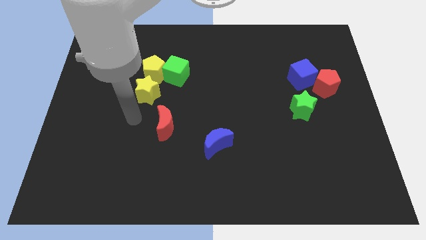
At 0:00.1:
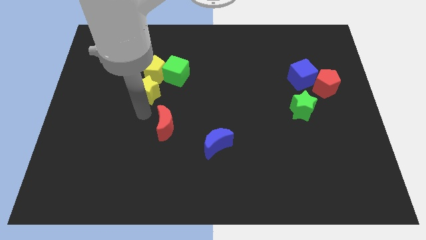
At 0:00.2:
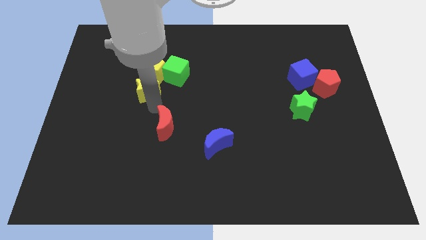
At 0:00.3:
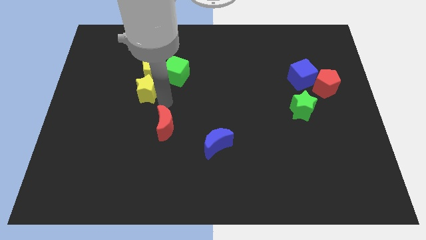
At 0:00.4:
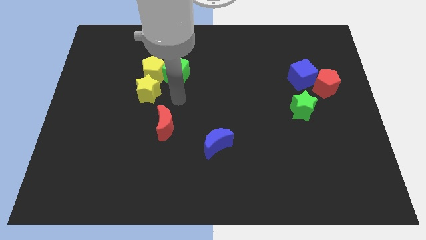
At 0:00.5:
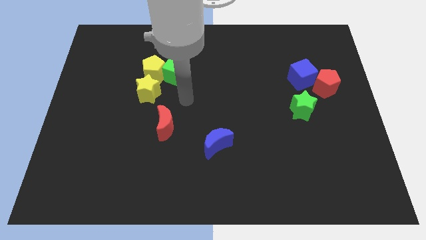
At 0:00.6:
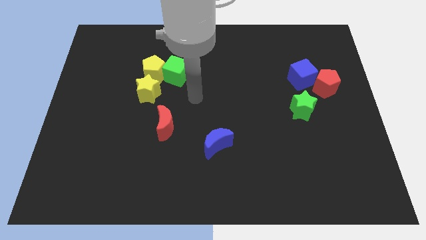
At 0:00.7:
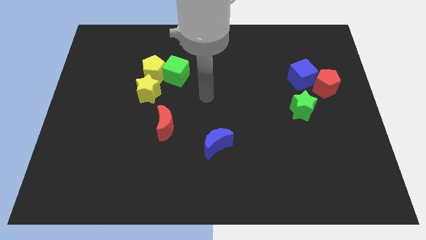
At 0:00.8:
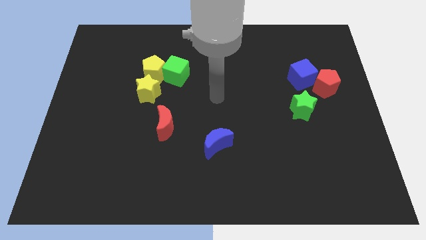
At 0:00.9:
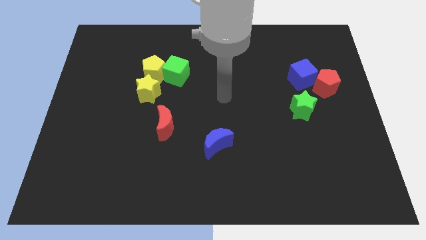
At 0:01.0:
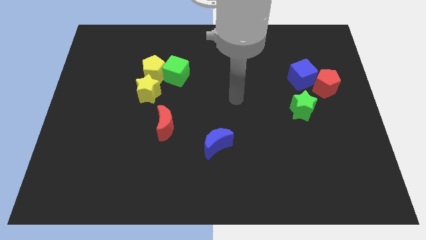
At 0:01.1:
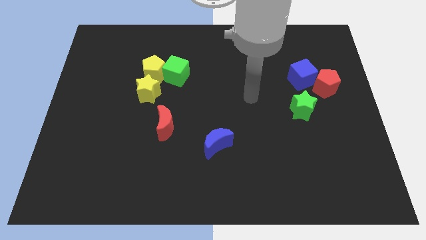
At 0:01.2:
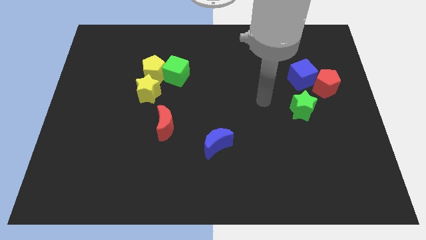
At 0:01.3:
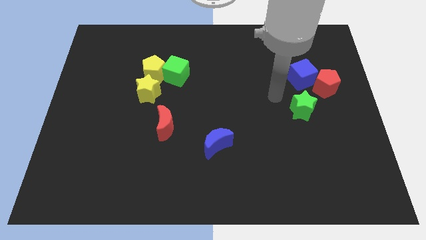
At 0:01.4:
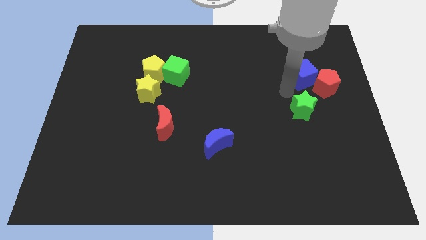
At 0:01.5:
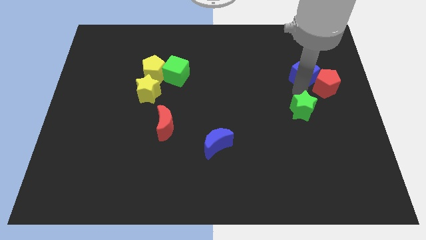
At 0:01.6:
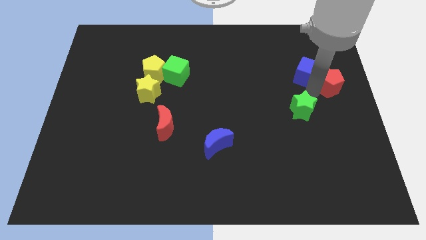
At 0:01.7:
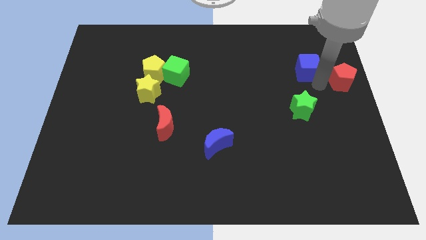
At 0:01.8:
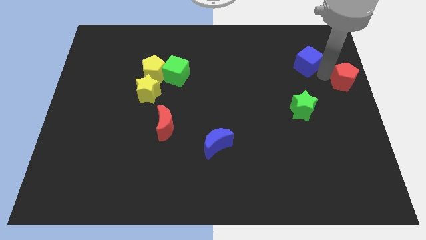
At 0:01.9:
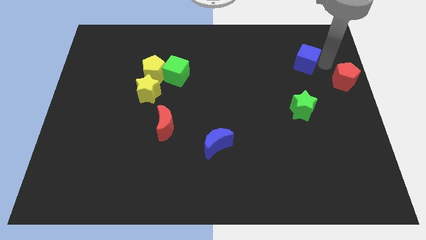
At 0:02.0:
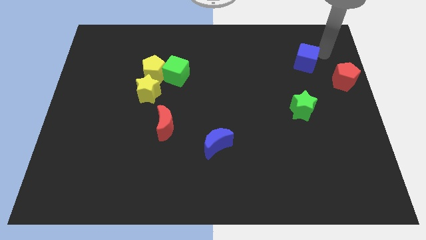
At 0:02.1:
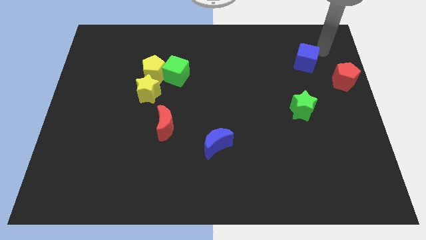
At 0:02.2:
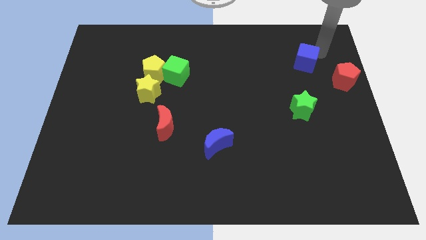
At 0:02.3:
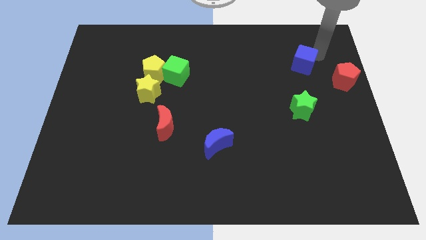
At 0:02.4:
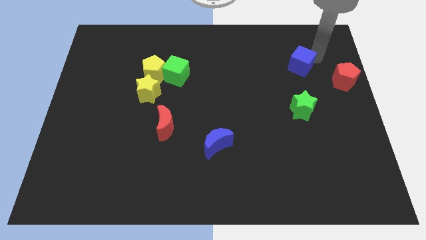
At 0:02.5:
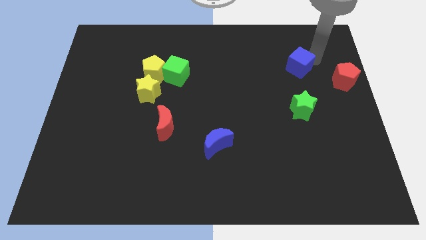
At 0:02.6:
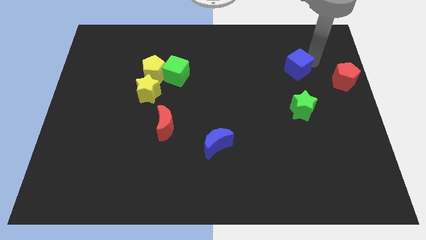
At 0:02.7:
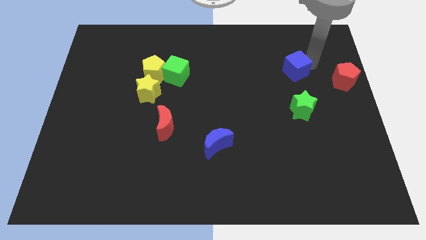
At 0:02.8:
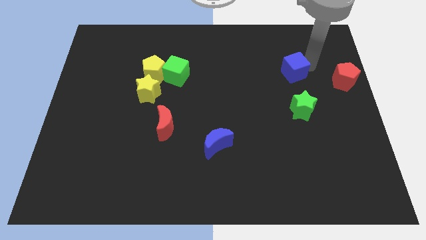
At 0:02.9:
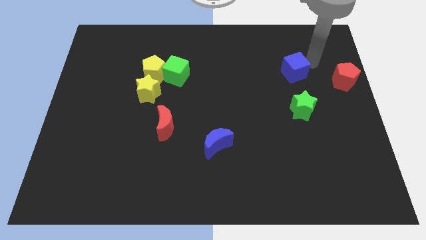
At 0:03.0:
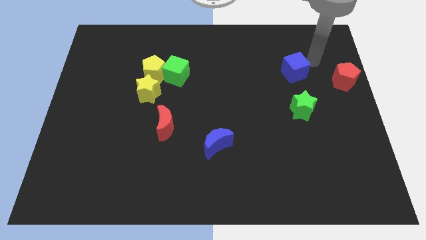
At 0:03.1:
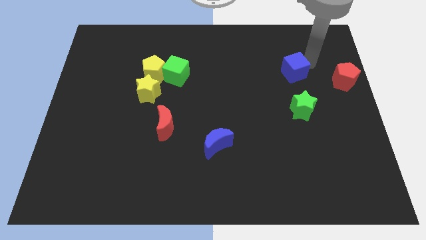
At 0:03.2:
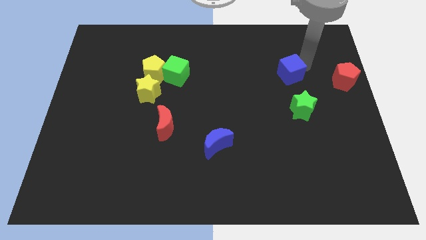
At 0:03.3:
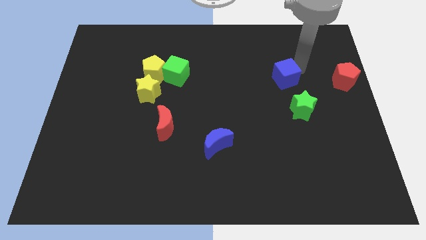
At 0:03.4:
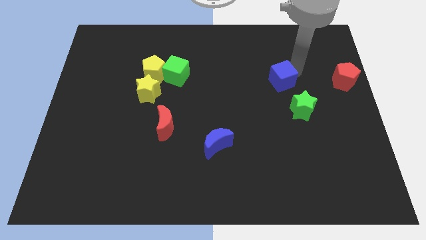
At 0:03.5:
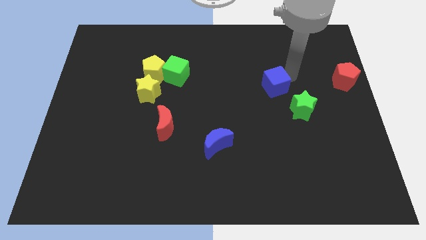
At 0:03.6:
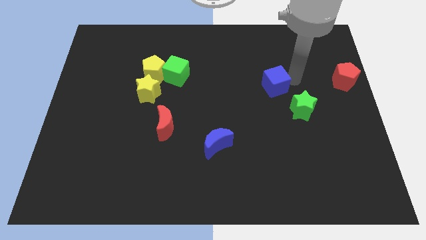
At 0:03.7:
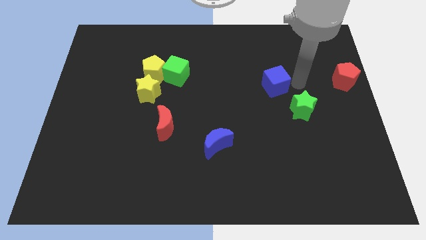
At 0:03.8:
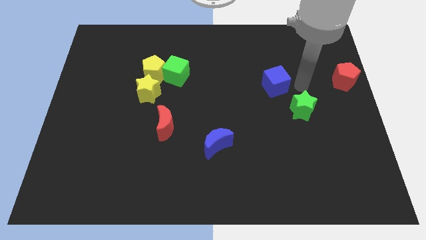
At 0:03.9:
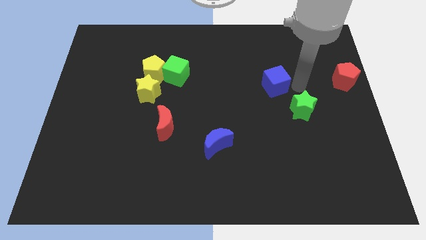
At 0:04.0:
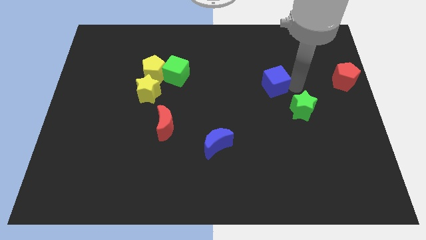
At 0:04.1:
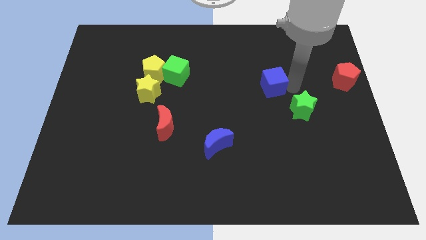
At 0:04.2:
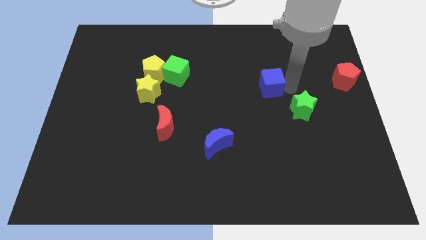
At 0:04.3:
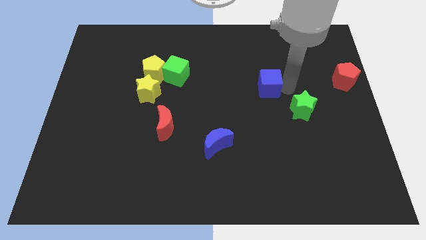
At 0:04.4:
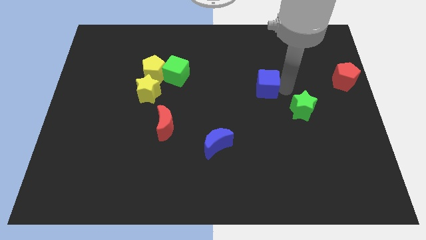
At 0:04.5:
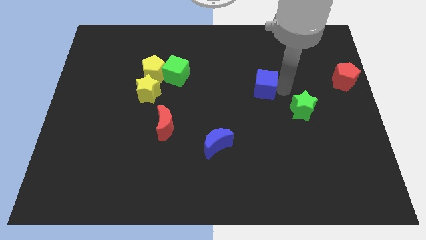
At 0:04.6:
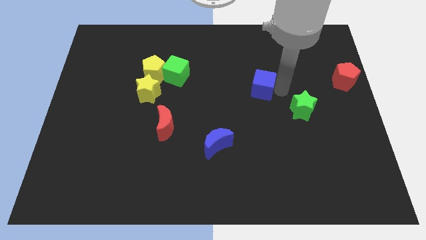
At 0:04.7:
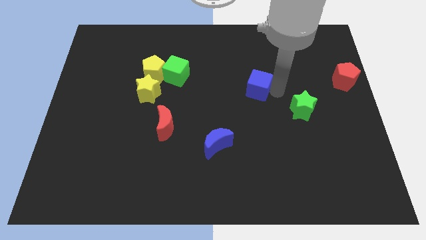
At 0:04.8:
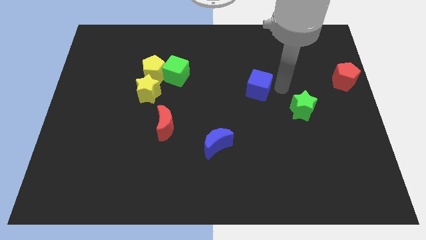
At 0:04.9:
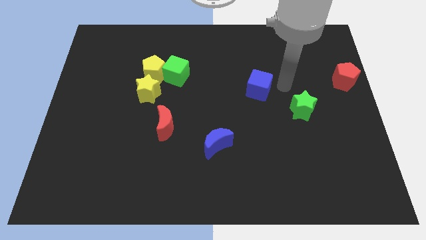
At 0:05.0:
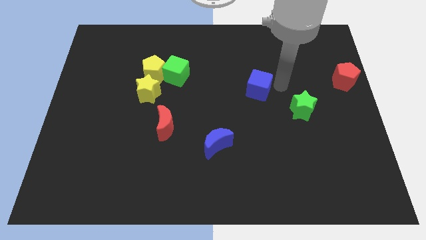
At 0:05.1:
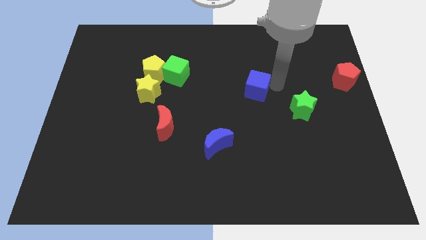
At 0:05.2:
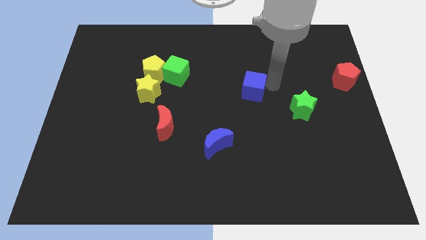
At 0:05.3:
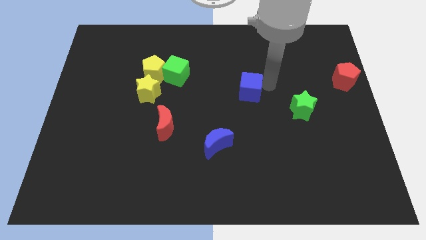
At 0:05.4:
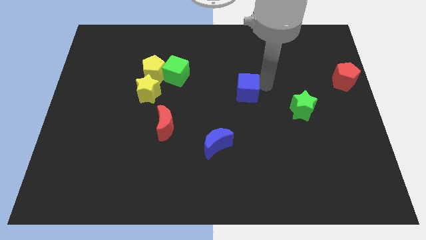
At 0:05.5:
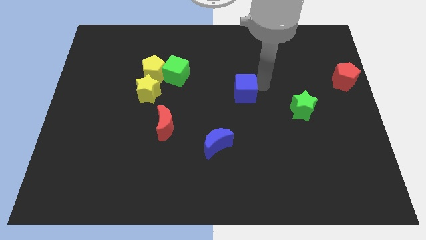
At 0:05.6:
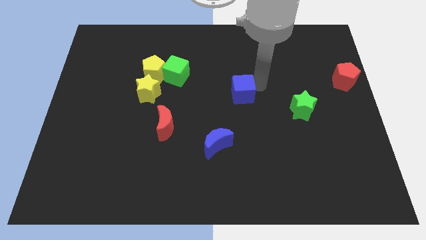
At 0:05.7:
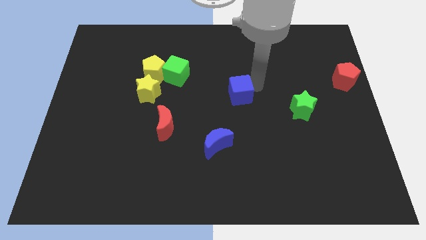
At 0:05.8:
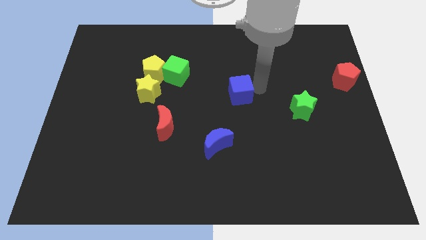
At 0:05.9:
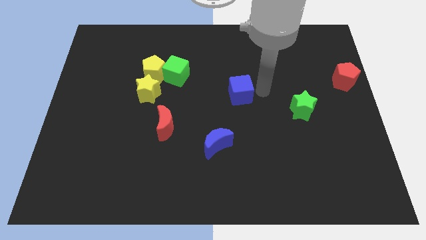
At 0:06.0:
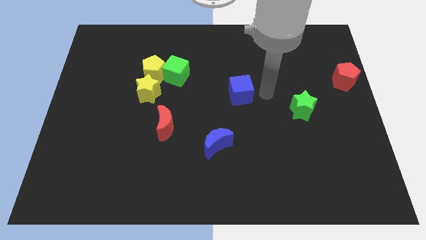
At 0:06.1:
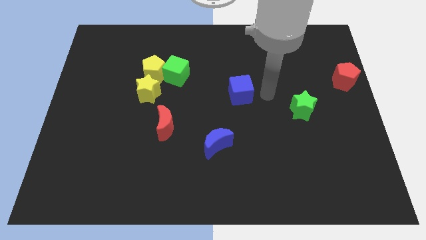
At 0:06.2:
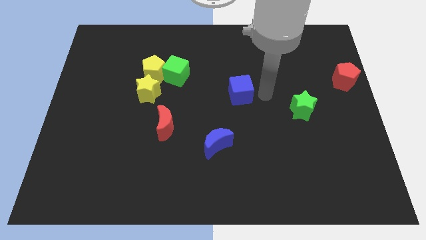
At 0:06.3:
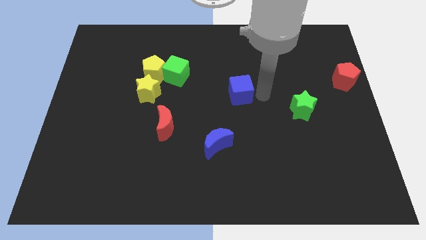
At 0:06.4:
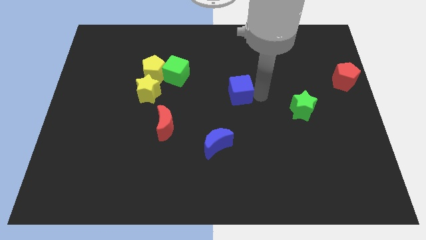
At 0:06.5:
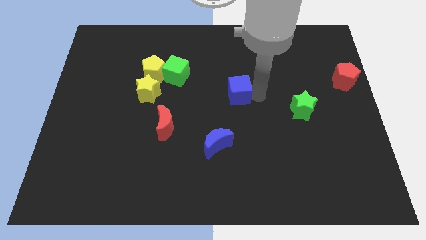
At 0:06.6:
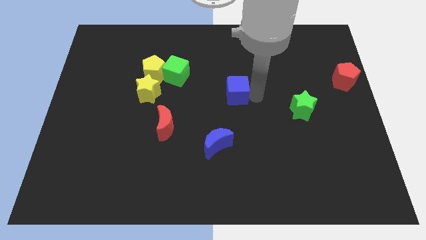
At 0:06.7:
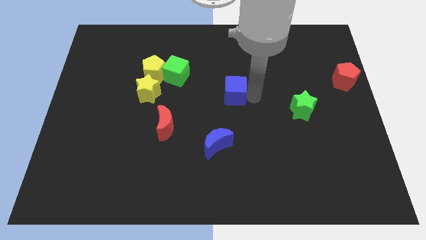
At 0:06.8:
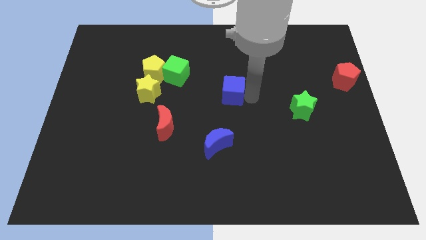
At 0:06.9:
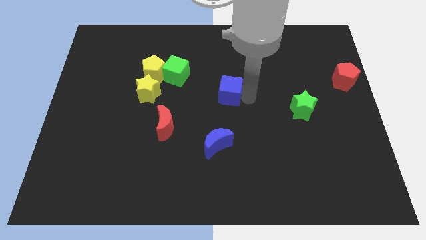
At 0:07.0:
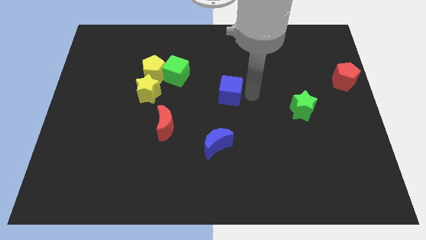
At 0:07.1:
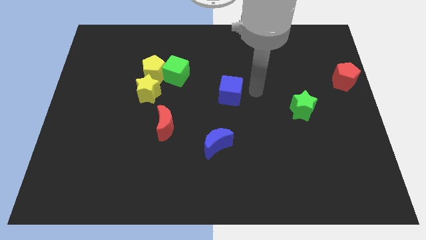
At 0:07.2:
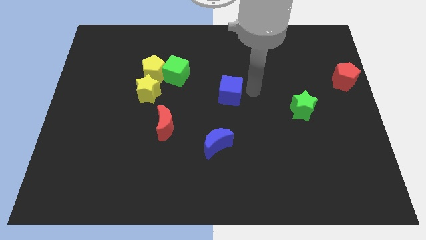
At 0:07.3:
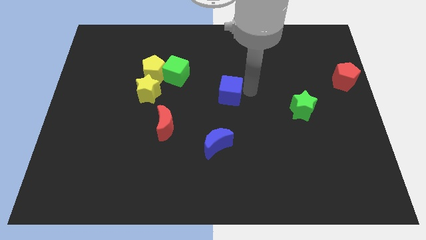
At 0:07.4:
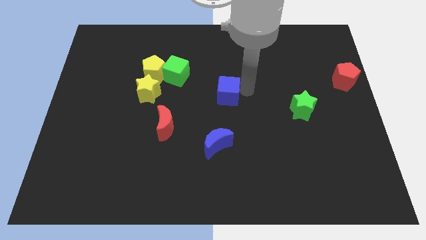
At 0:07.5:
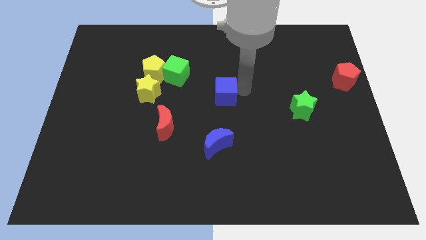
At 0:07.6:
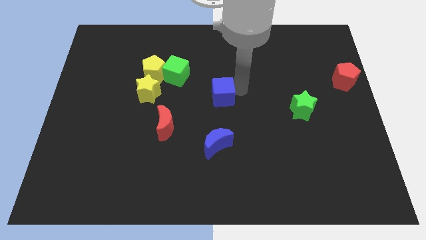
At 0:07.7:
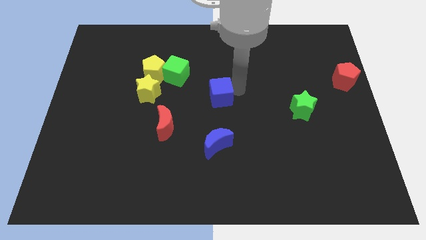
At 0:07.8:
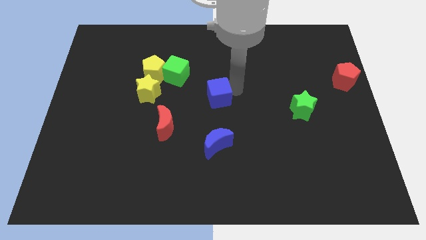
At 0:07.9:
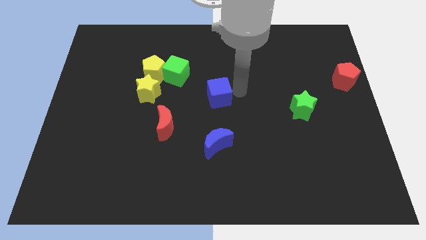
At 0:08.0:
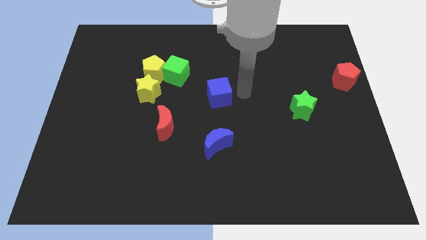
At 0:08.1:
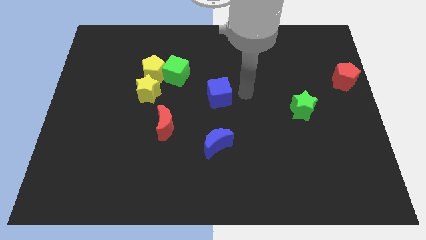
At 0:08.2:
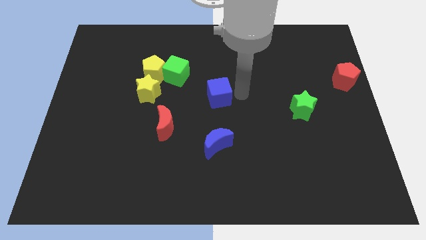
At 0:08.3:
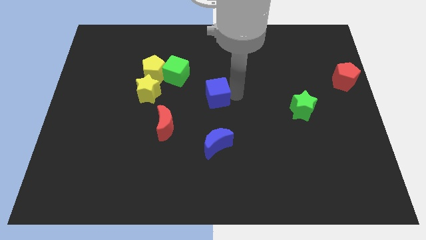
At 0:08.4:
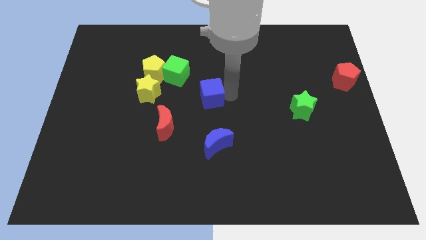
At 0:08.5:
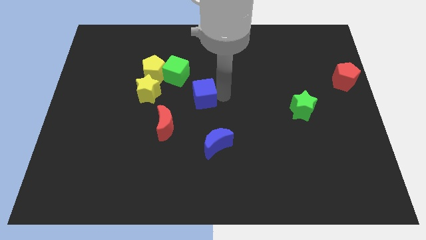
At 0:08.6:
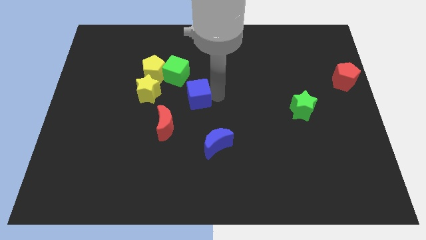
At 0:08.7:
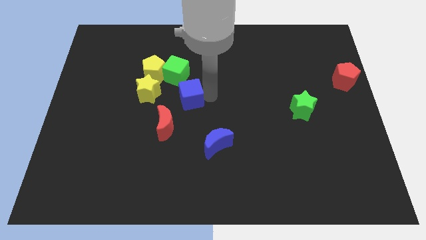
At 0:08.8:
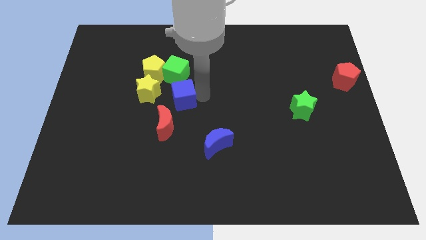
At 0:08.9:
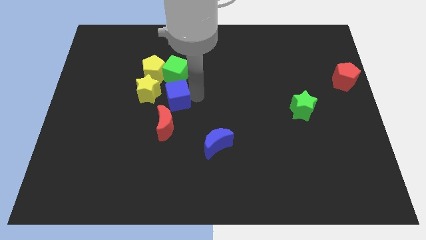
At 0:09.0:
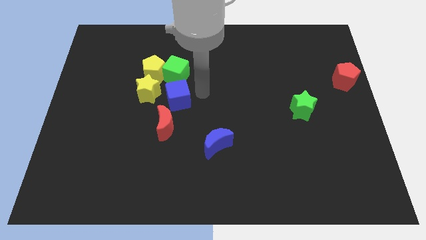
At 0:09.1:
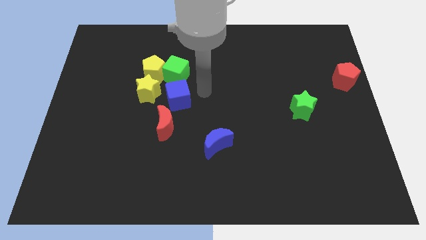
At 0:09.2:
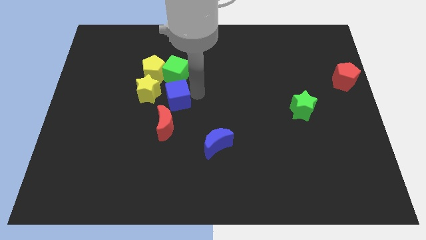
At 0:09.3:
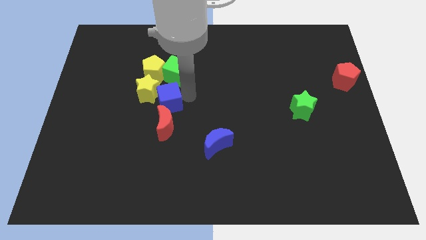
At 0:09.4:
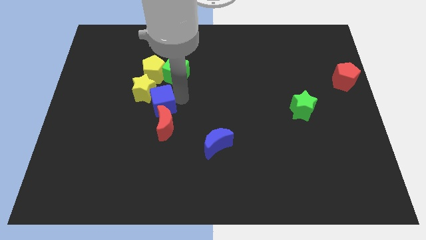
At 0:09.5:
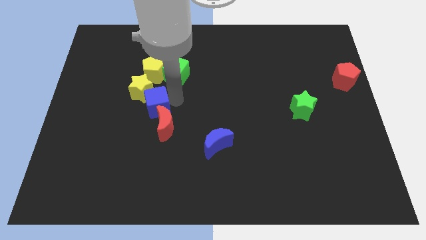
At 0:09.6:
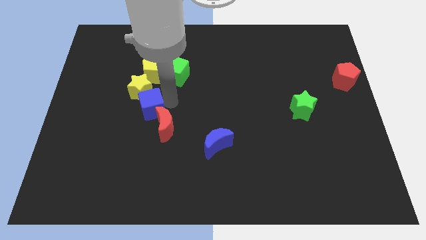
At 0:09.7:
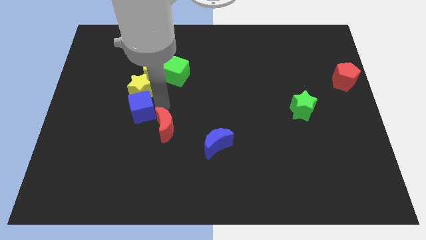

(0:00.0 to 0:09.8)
push the blue cube to the bottom left side of the yellow star
